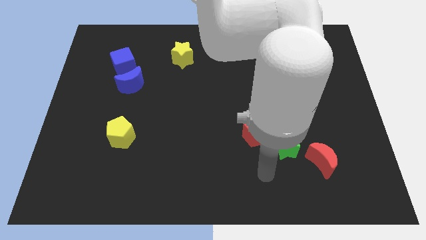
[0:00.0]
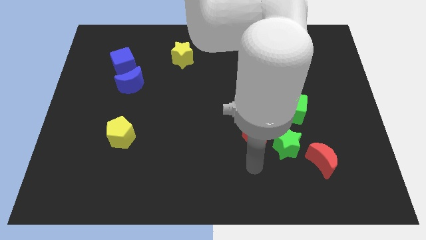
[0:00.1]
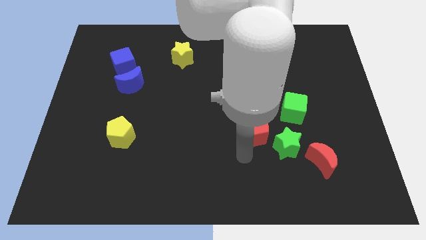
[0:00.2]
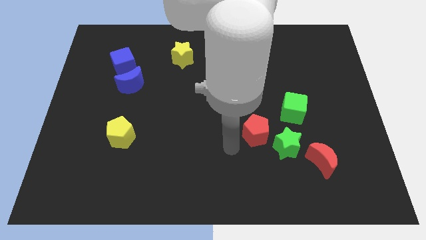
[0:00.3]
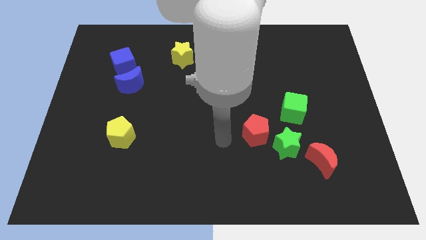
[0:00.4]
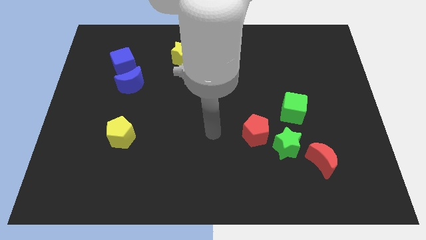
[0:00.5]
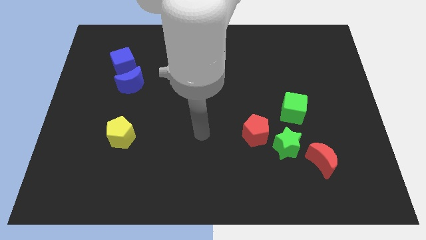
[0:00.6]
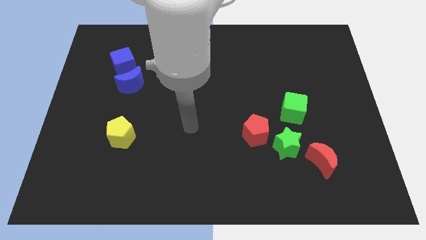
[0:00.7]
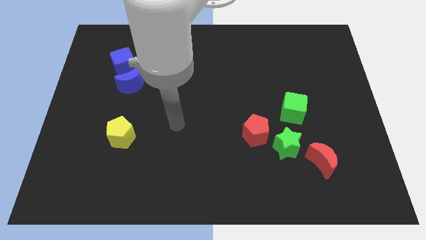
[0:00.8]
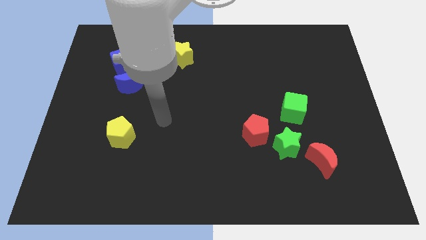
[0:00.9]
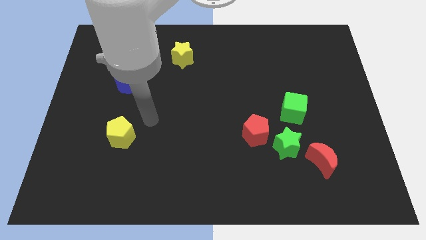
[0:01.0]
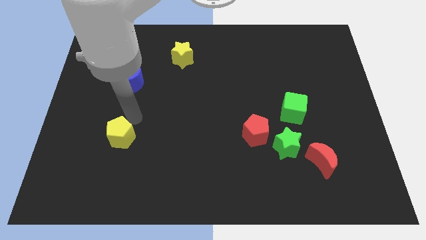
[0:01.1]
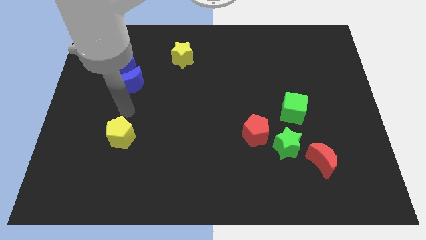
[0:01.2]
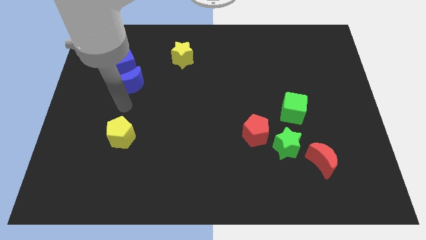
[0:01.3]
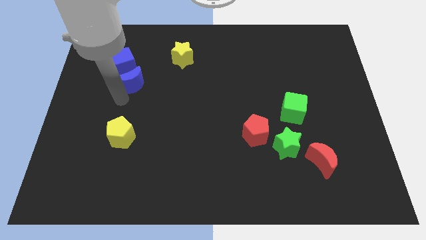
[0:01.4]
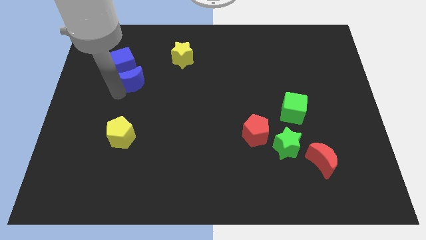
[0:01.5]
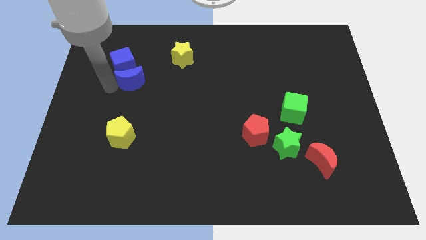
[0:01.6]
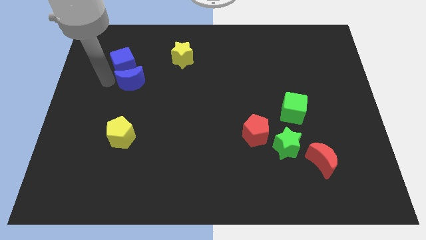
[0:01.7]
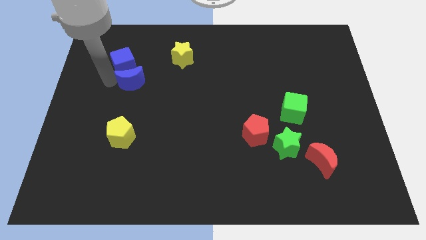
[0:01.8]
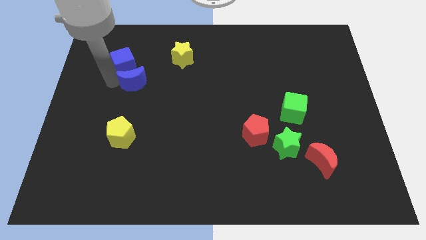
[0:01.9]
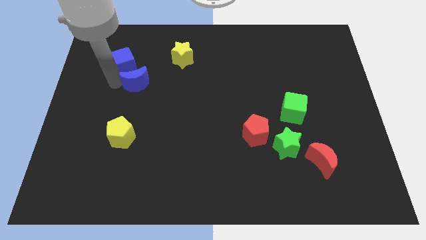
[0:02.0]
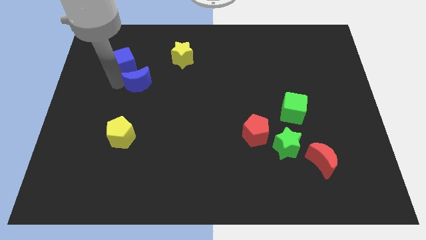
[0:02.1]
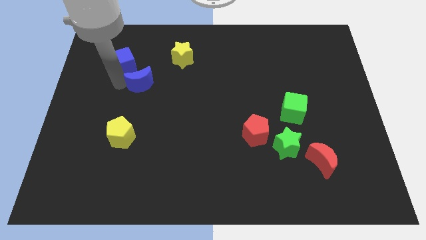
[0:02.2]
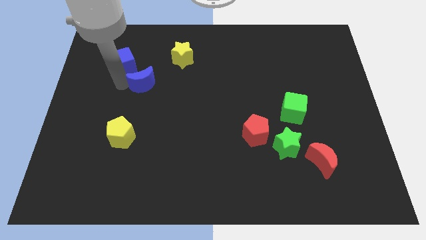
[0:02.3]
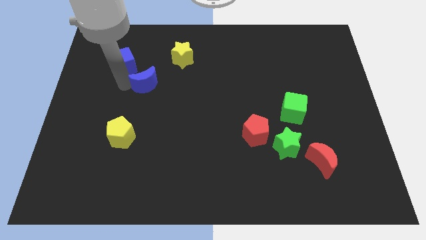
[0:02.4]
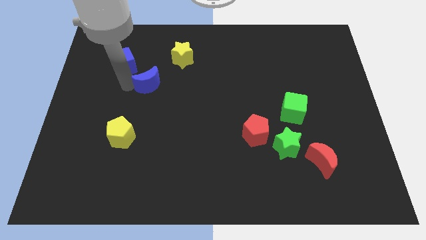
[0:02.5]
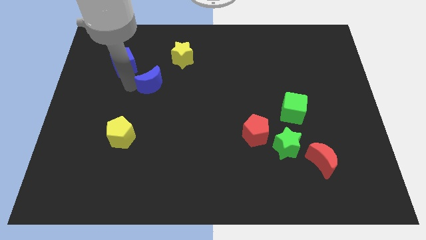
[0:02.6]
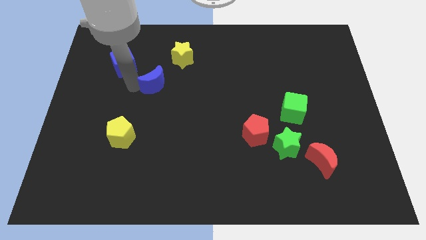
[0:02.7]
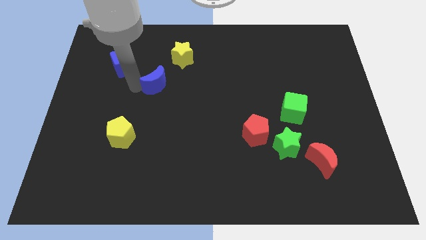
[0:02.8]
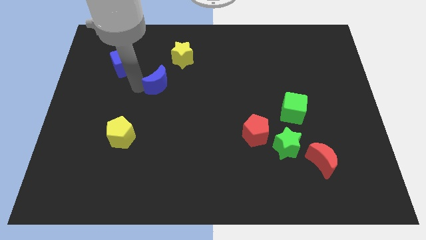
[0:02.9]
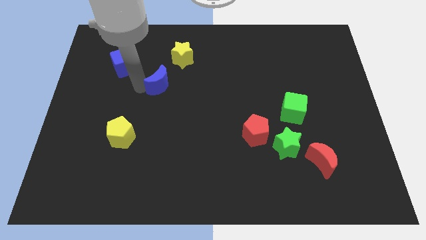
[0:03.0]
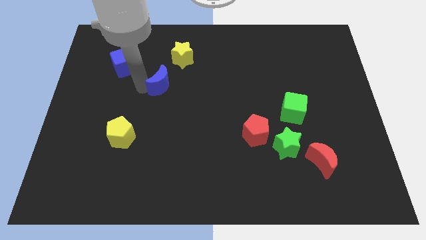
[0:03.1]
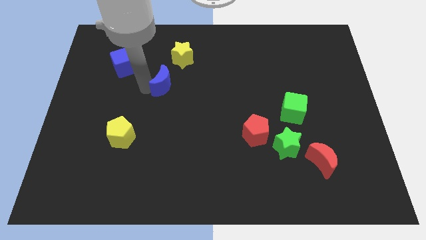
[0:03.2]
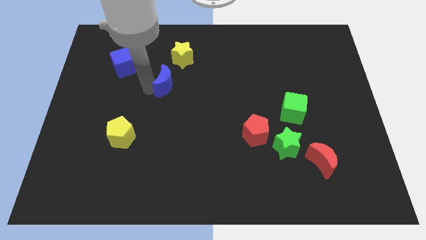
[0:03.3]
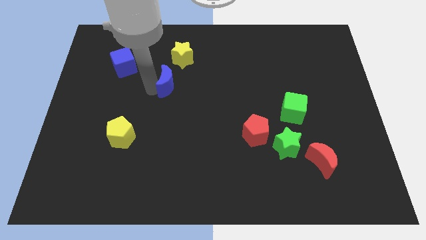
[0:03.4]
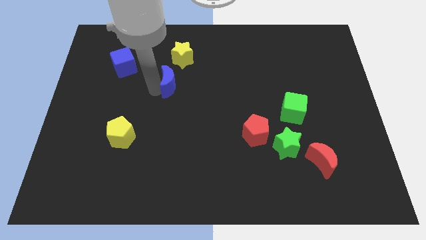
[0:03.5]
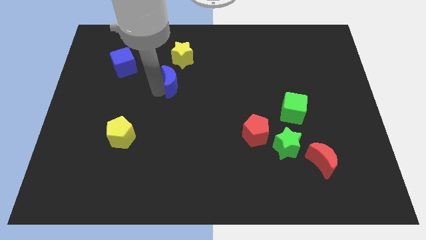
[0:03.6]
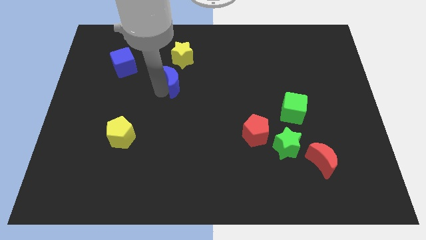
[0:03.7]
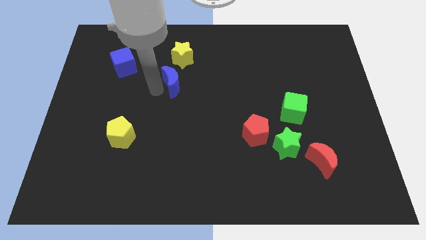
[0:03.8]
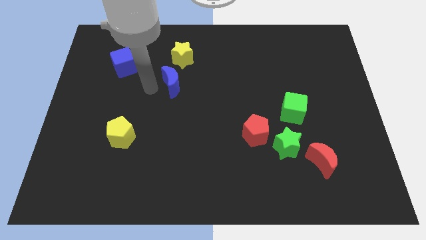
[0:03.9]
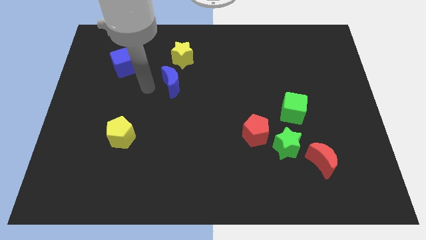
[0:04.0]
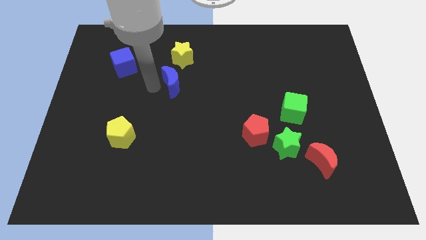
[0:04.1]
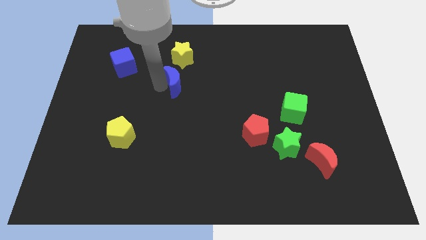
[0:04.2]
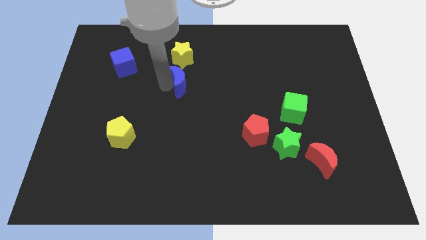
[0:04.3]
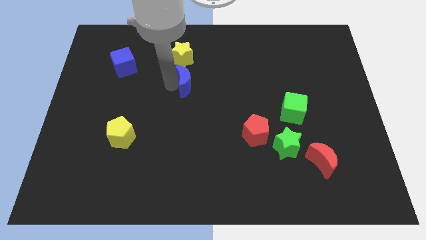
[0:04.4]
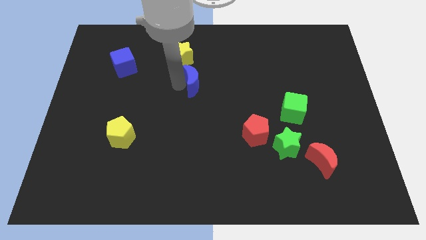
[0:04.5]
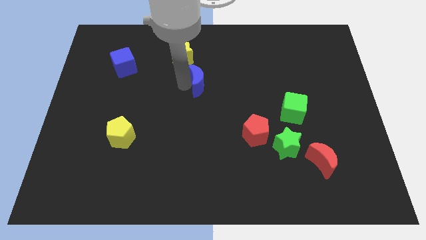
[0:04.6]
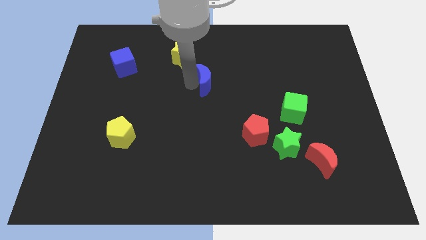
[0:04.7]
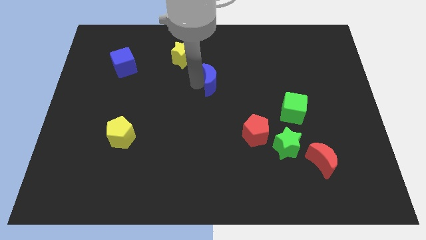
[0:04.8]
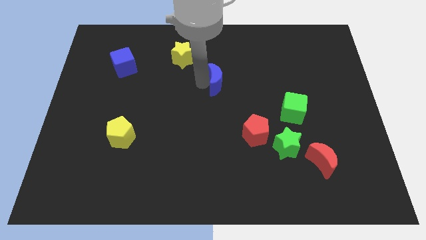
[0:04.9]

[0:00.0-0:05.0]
push the blue moon right

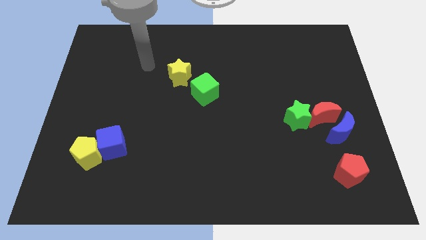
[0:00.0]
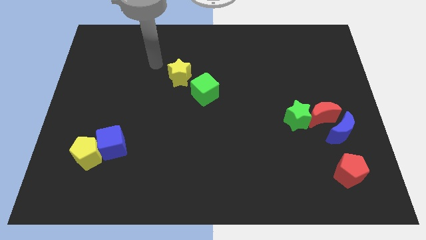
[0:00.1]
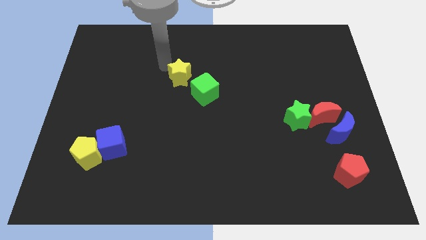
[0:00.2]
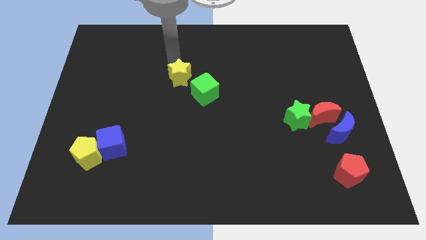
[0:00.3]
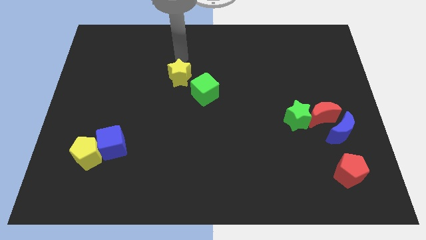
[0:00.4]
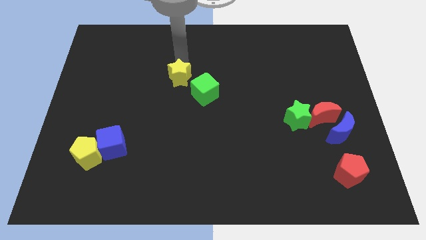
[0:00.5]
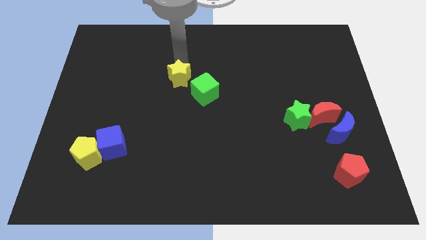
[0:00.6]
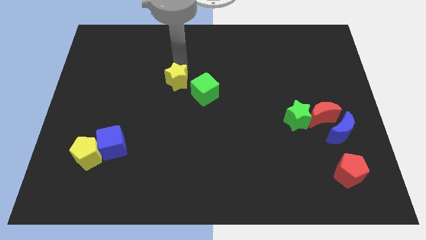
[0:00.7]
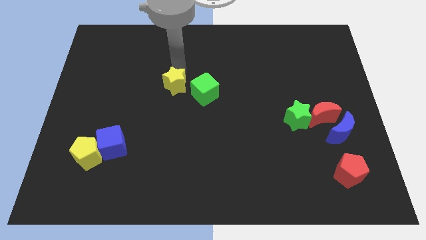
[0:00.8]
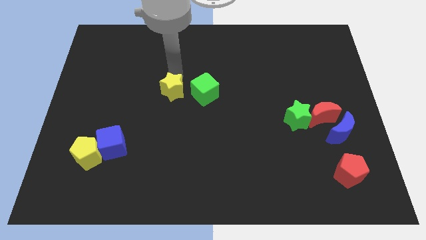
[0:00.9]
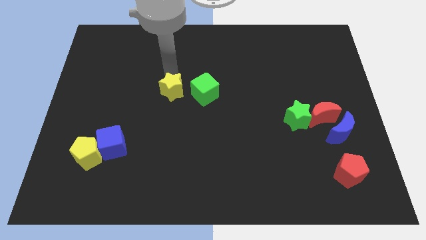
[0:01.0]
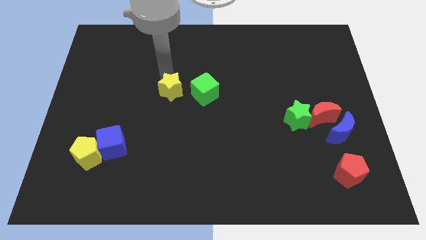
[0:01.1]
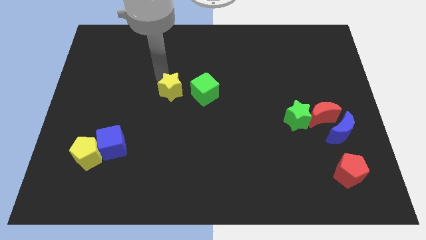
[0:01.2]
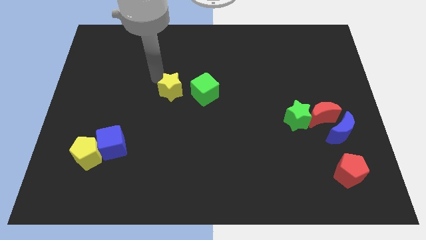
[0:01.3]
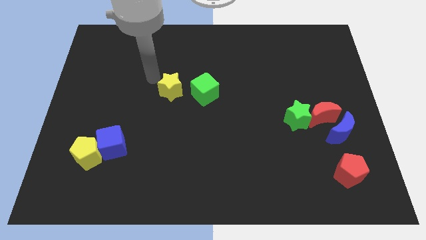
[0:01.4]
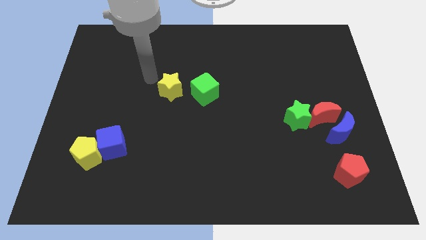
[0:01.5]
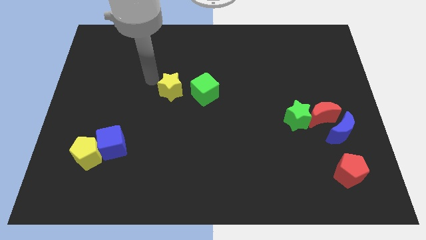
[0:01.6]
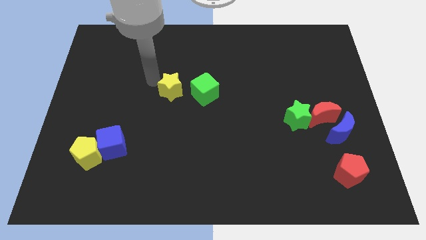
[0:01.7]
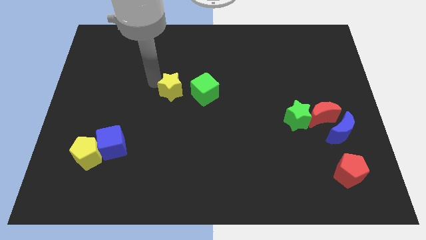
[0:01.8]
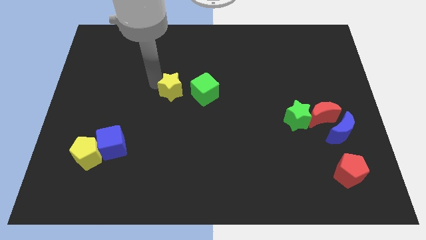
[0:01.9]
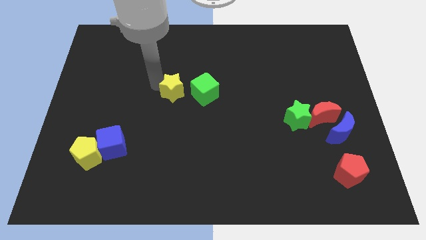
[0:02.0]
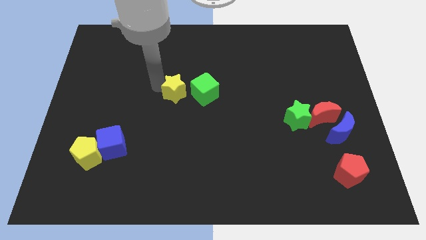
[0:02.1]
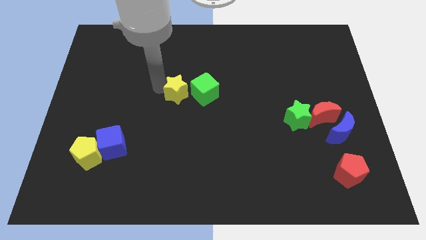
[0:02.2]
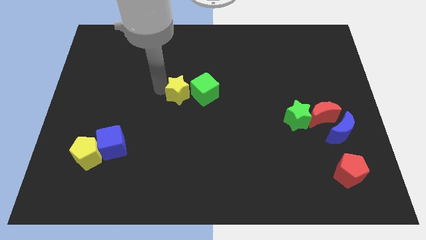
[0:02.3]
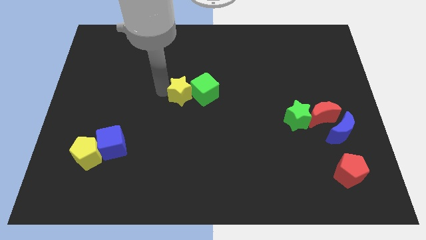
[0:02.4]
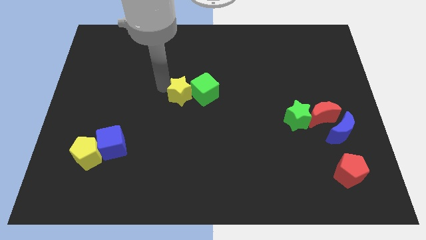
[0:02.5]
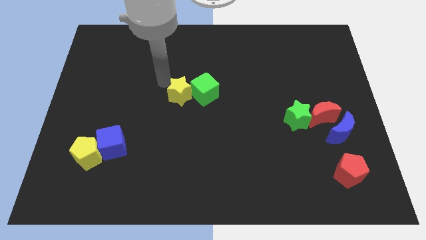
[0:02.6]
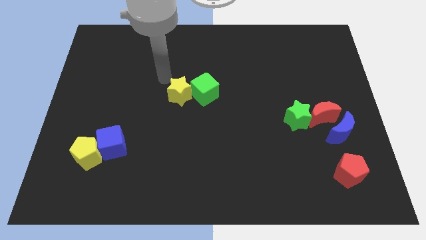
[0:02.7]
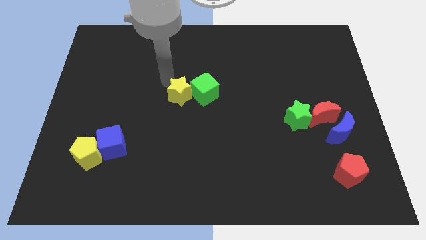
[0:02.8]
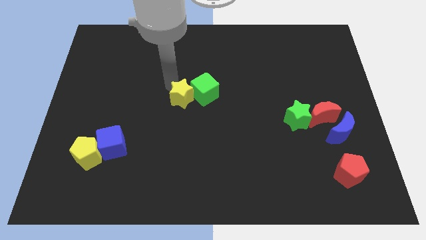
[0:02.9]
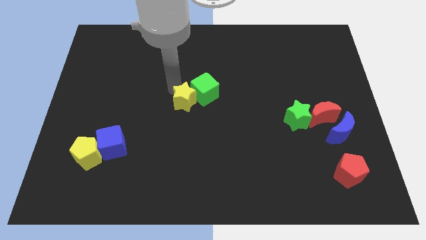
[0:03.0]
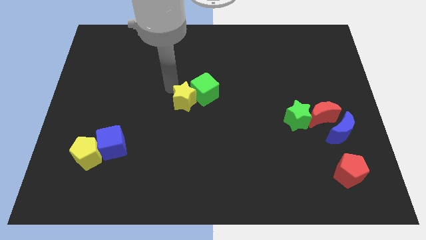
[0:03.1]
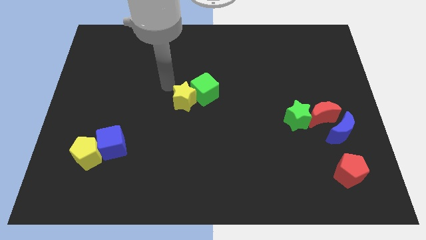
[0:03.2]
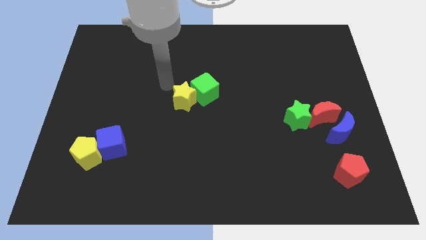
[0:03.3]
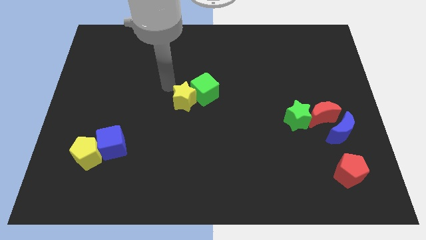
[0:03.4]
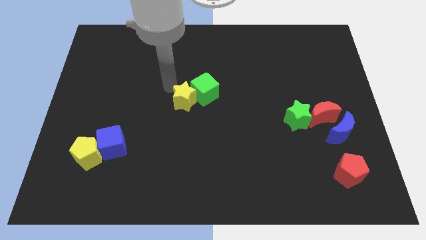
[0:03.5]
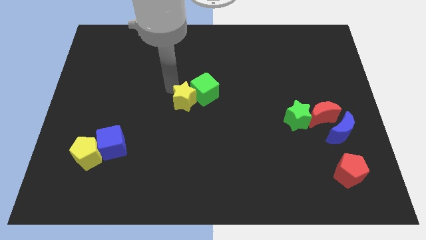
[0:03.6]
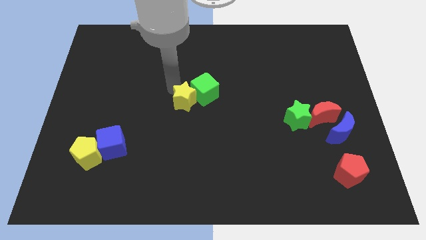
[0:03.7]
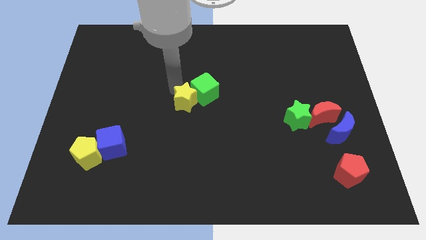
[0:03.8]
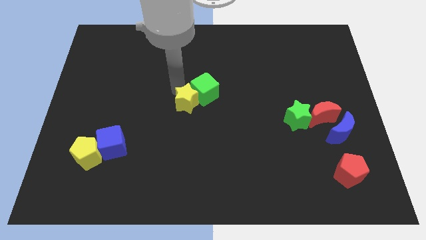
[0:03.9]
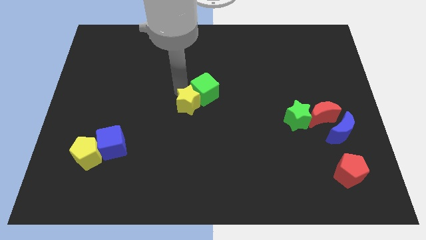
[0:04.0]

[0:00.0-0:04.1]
slide the yellow star slightly down and to the right diagonally
